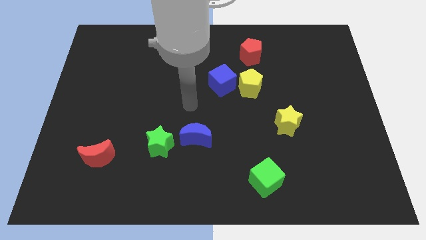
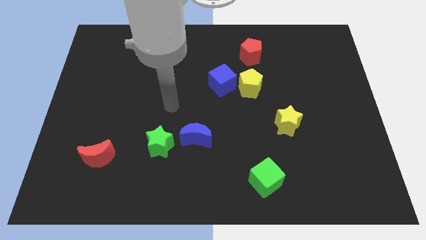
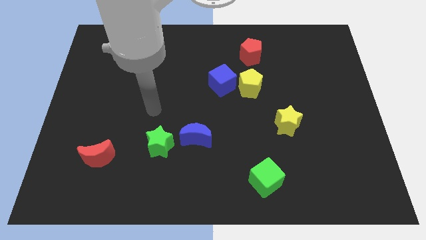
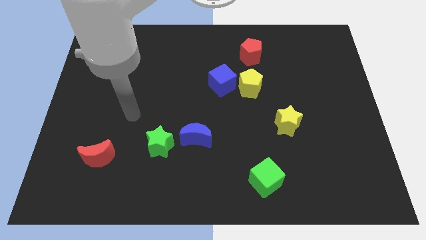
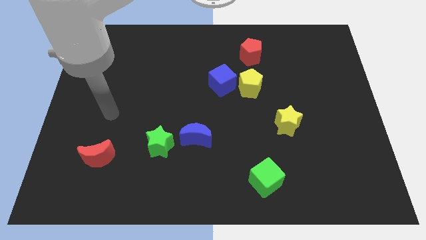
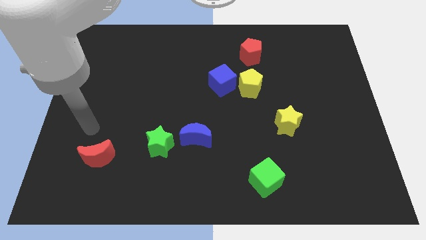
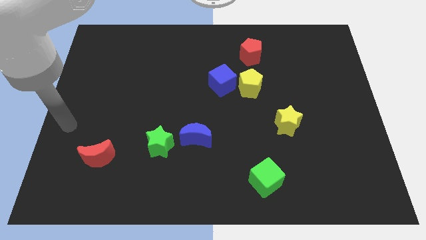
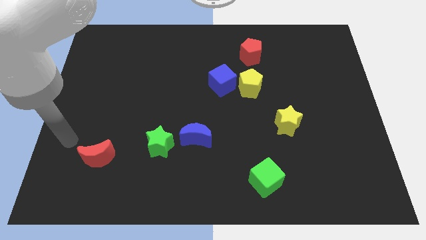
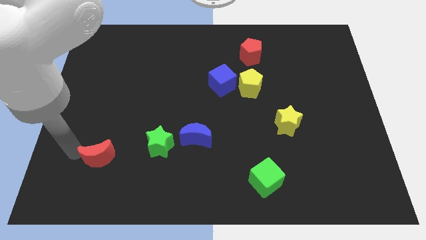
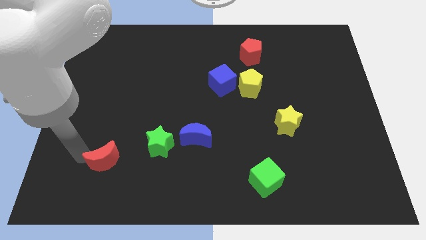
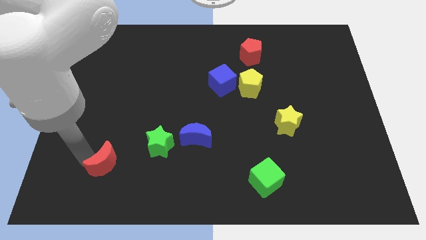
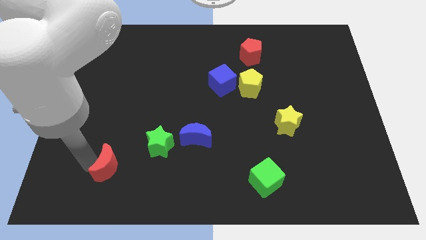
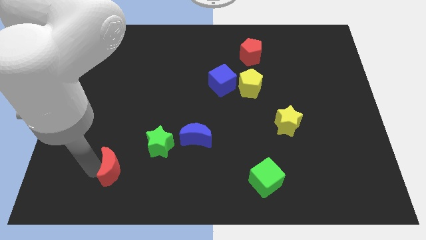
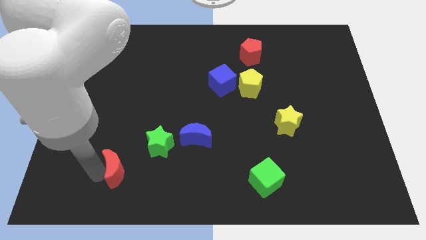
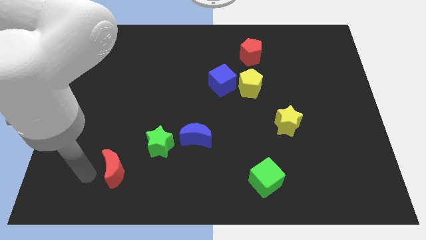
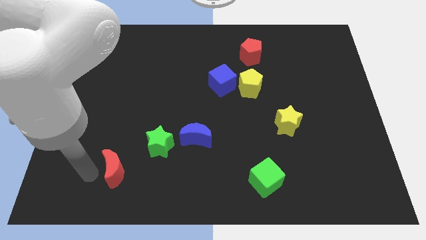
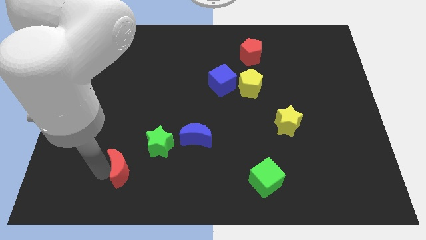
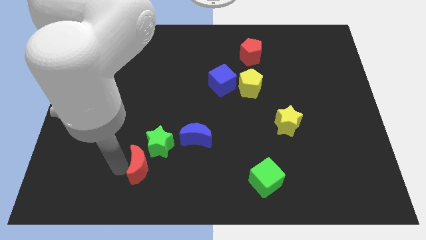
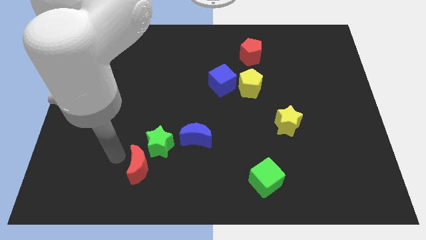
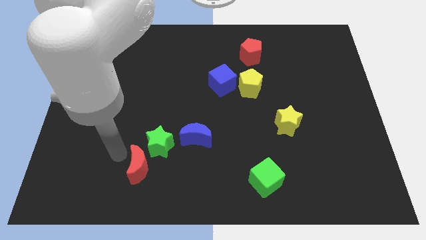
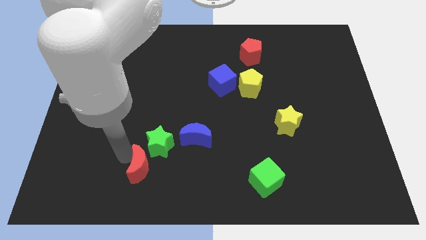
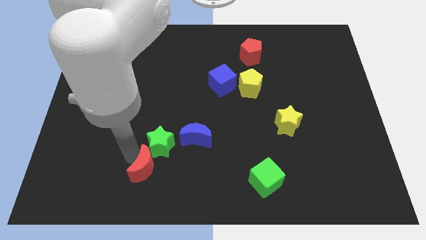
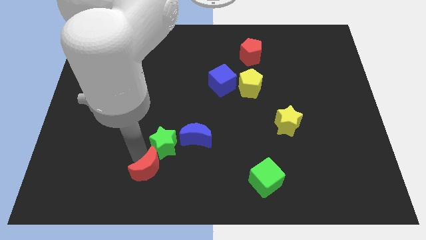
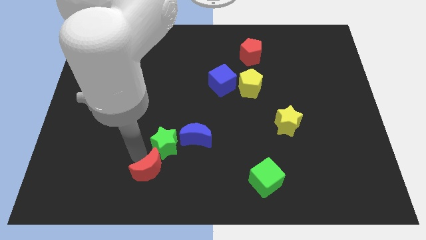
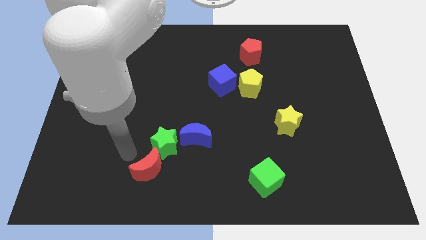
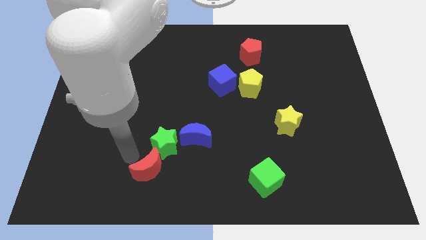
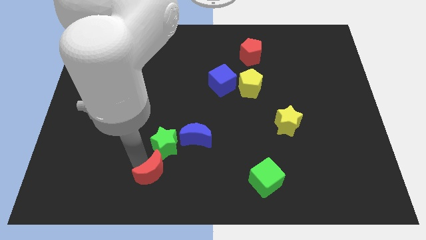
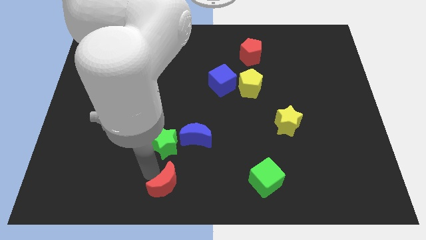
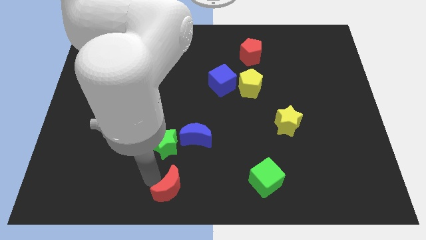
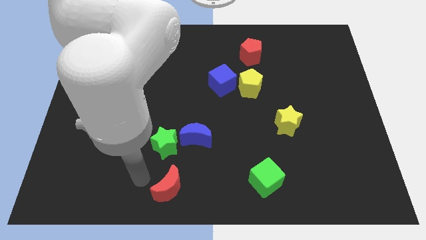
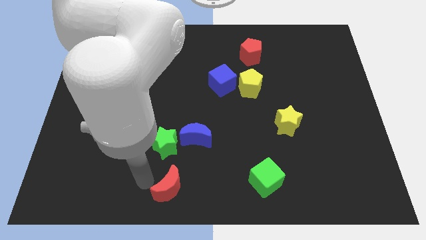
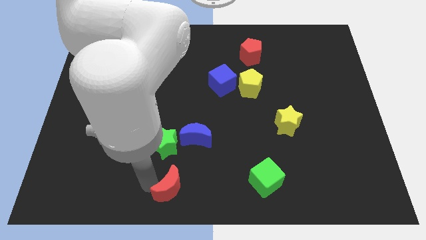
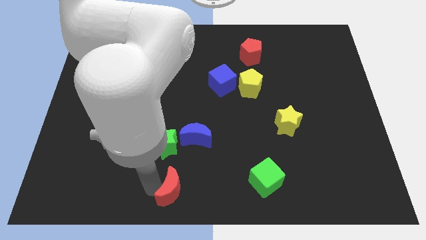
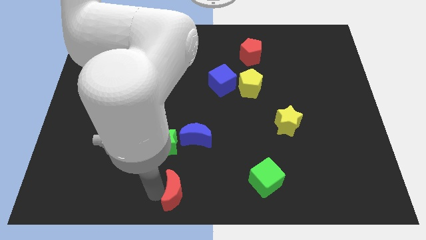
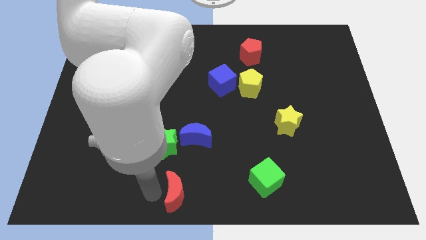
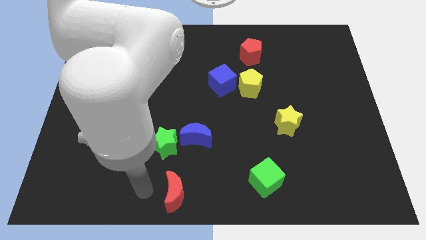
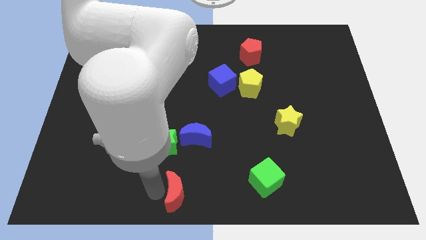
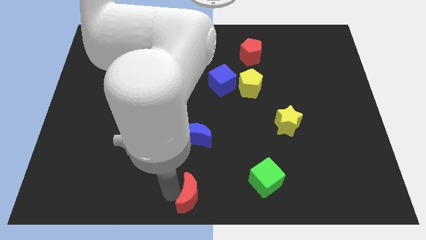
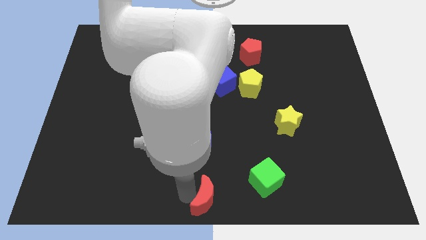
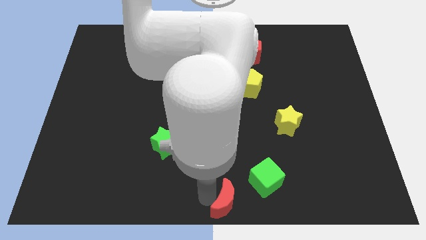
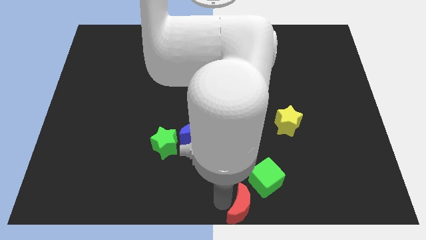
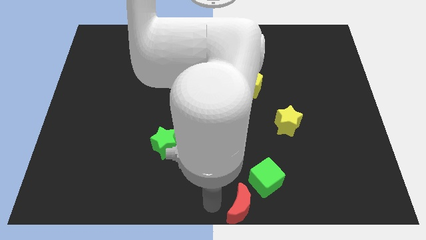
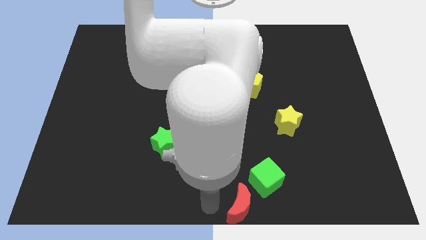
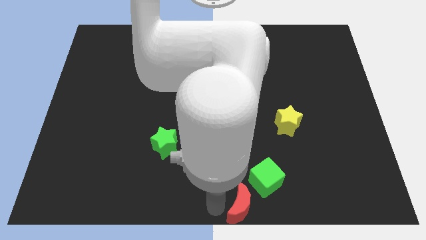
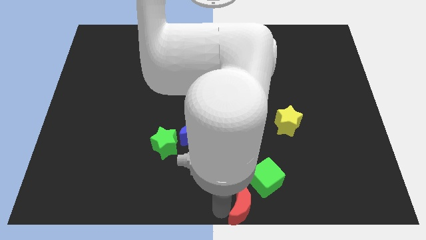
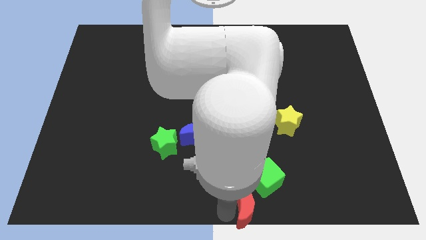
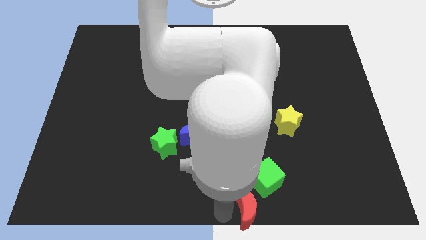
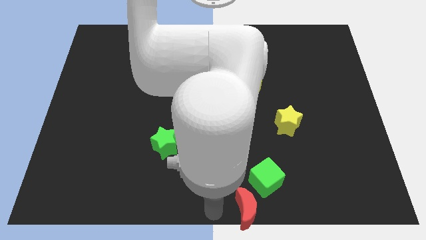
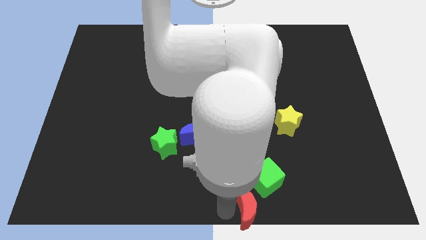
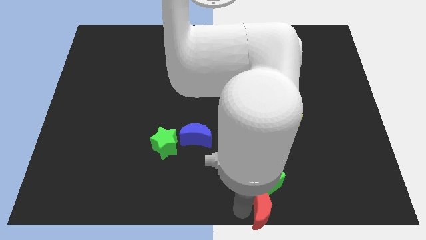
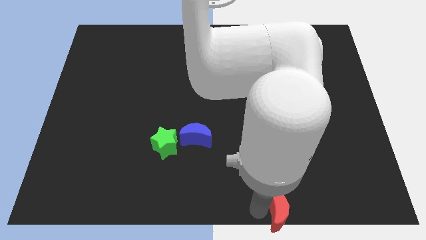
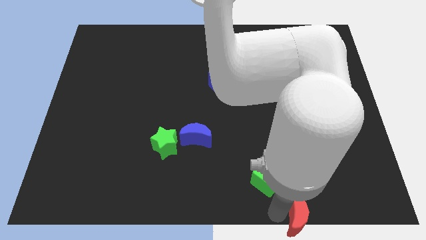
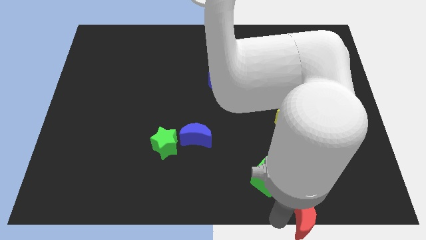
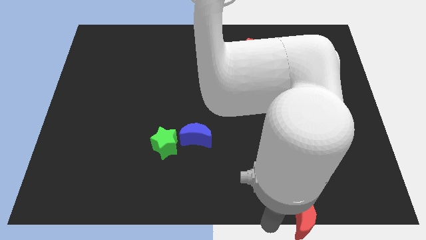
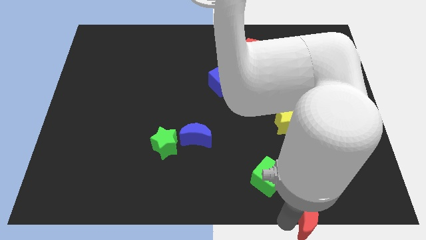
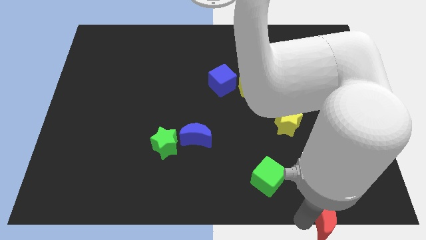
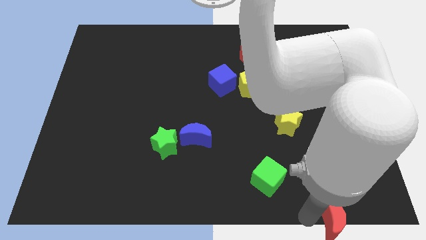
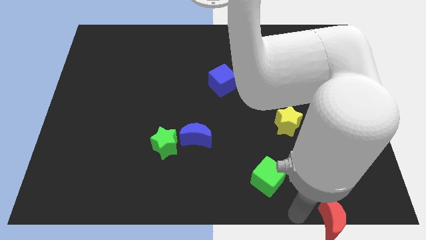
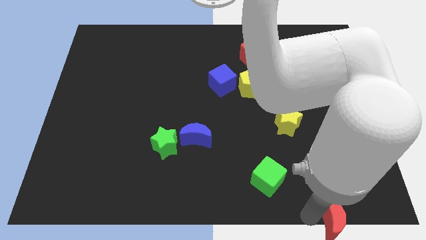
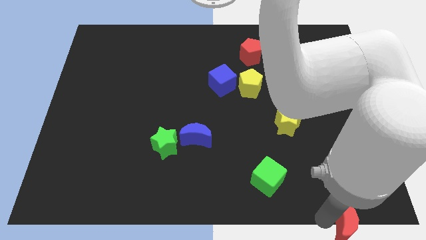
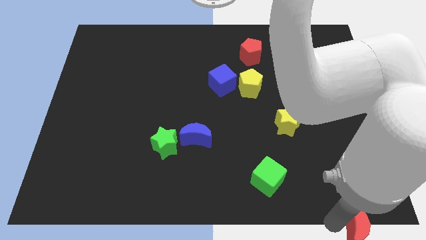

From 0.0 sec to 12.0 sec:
push the red moon to the bottom right of the board
